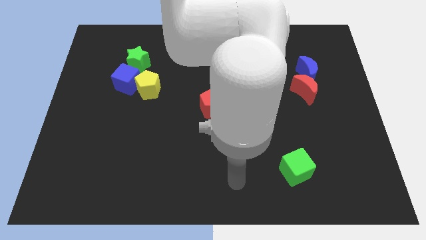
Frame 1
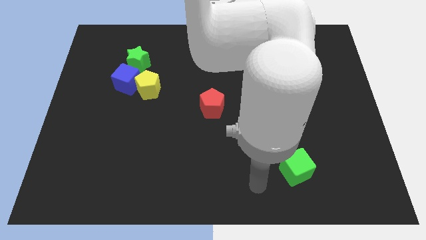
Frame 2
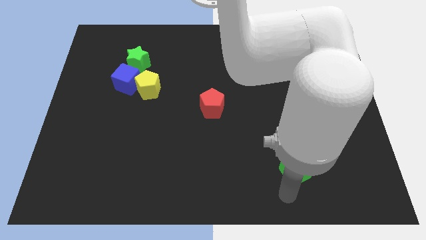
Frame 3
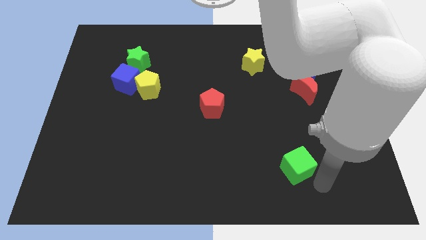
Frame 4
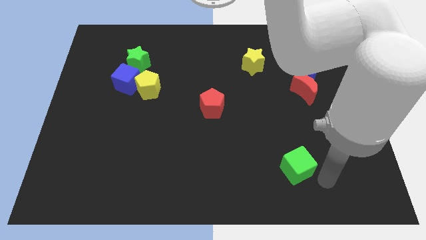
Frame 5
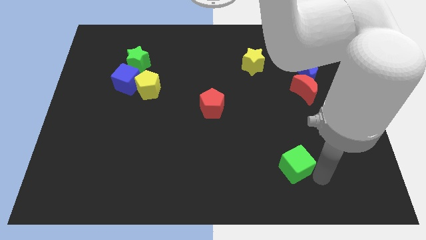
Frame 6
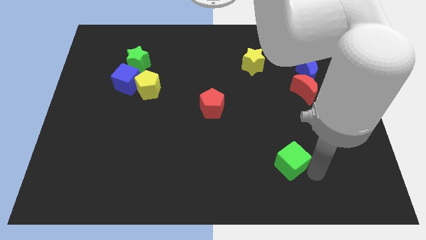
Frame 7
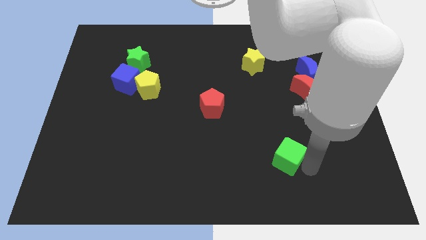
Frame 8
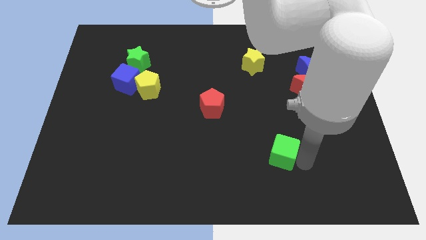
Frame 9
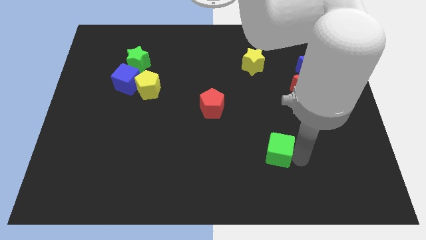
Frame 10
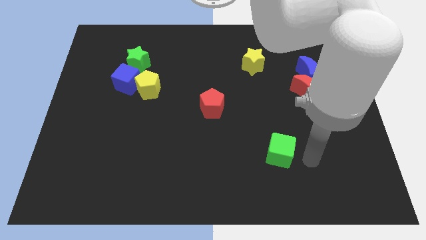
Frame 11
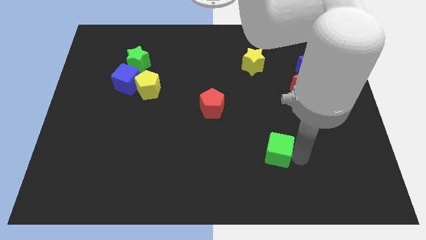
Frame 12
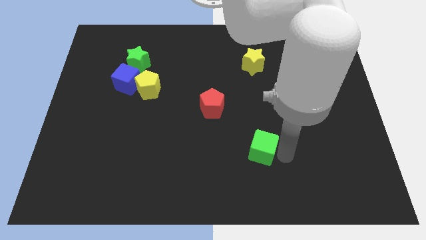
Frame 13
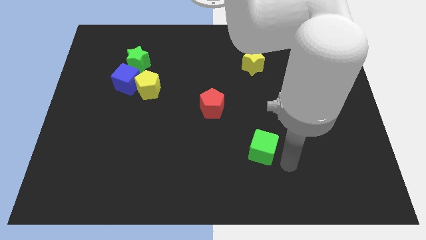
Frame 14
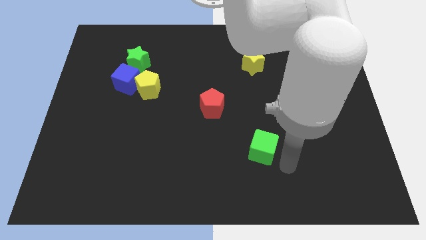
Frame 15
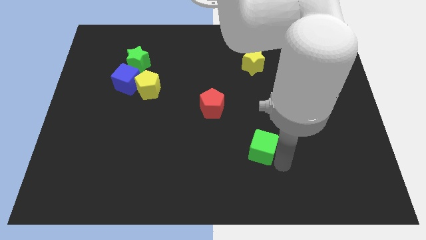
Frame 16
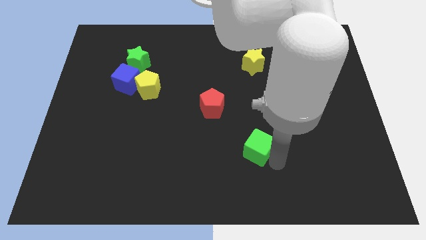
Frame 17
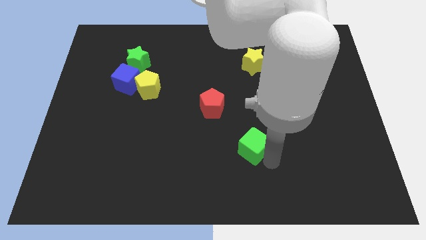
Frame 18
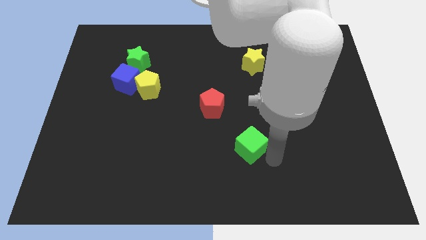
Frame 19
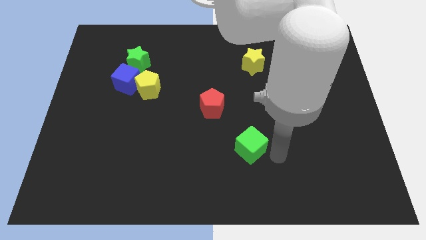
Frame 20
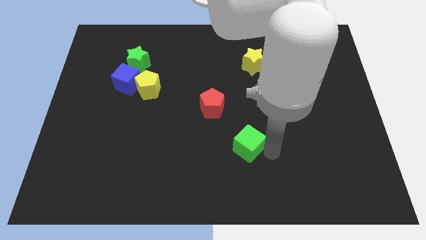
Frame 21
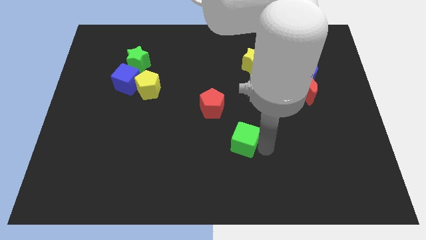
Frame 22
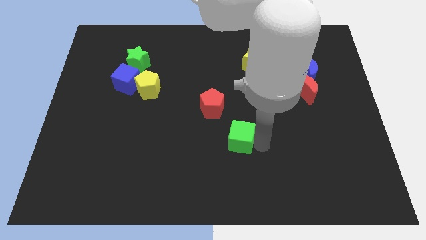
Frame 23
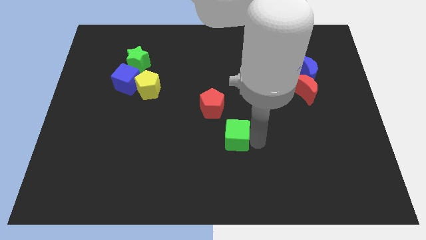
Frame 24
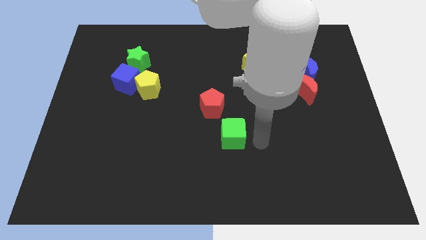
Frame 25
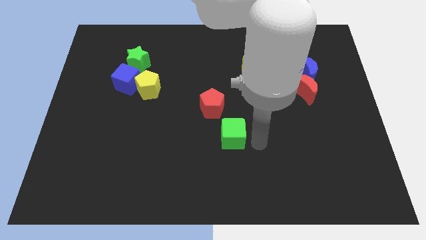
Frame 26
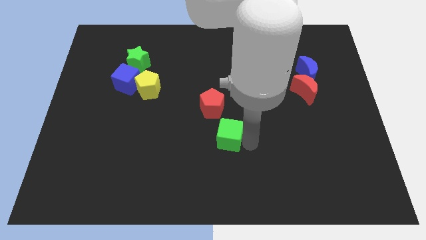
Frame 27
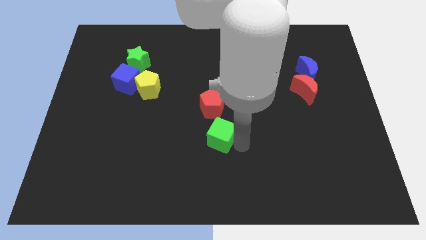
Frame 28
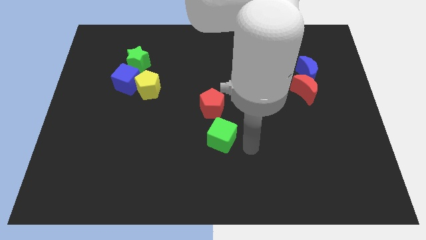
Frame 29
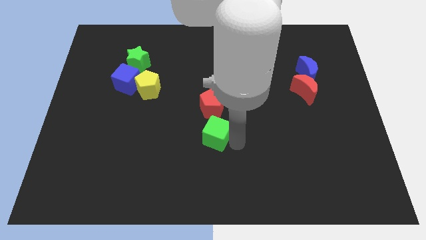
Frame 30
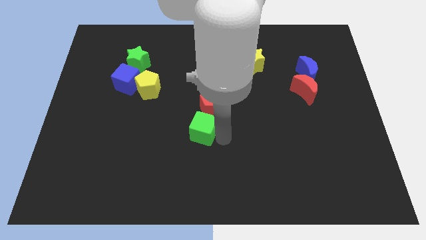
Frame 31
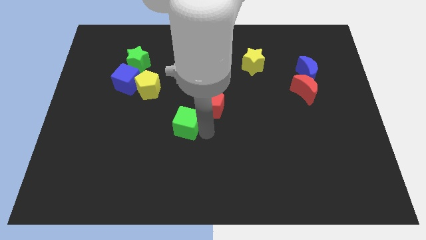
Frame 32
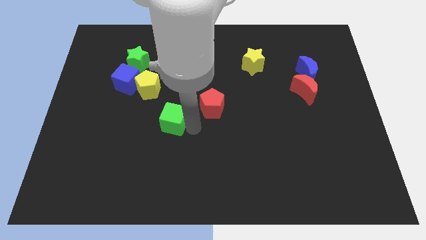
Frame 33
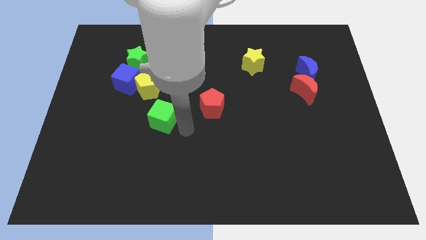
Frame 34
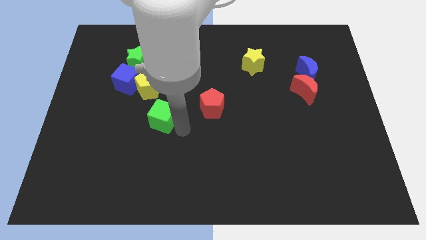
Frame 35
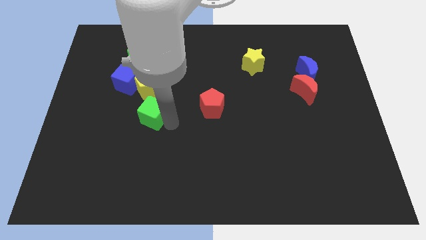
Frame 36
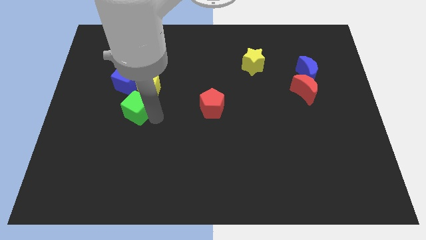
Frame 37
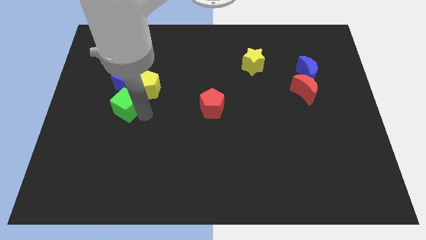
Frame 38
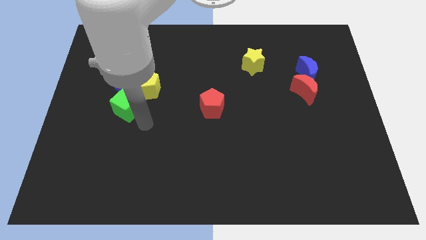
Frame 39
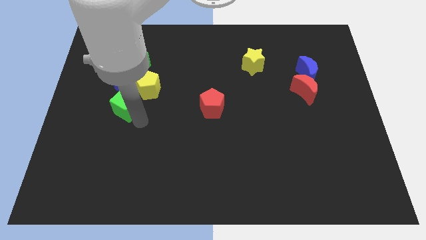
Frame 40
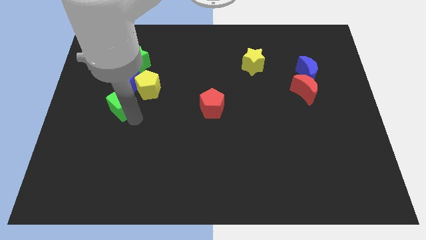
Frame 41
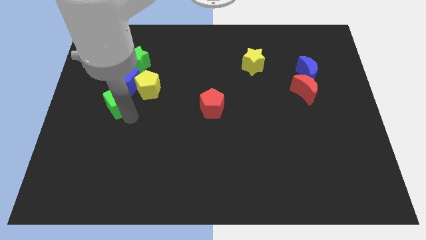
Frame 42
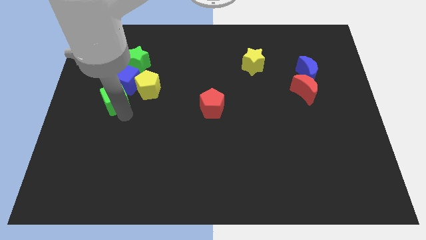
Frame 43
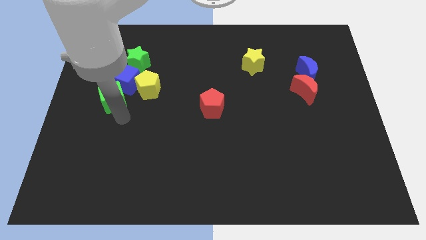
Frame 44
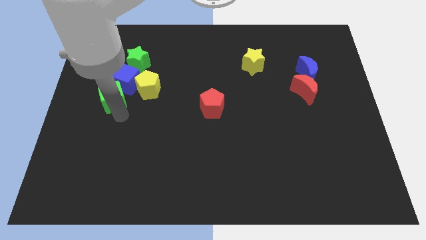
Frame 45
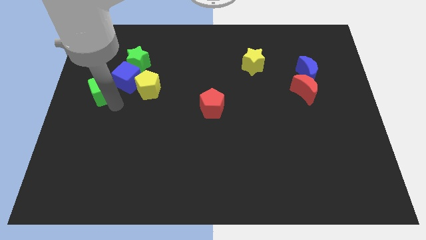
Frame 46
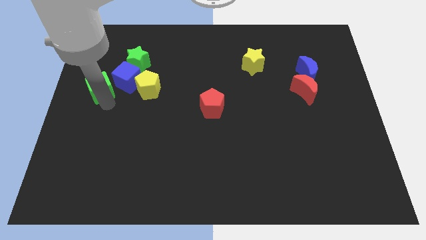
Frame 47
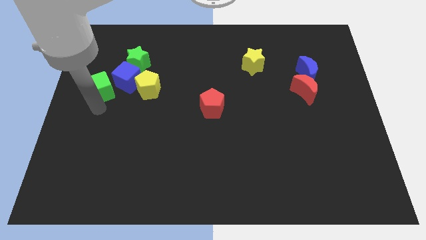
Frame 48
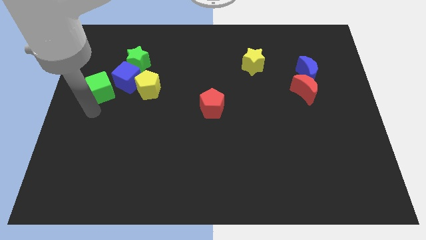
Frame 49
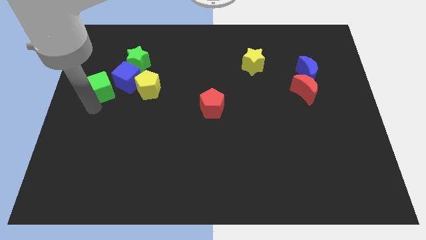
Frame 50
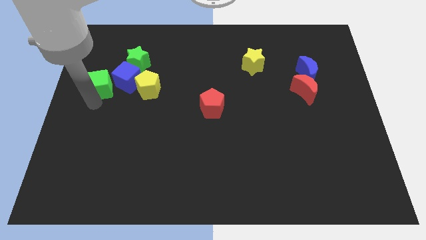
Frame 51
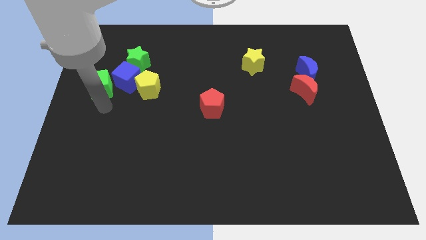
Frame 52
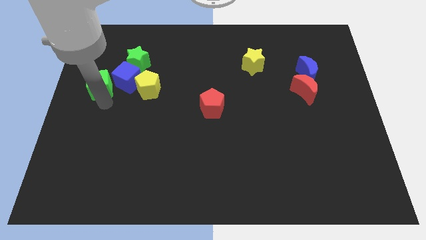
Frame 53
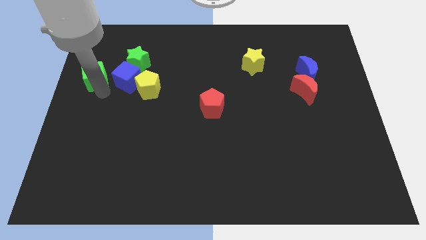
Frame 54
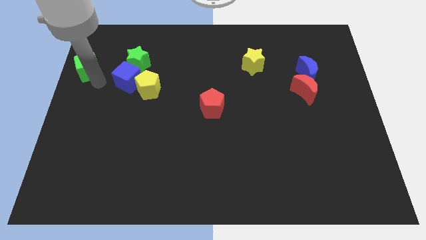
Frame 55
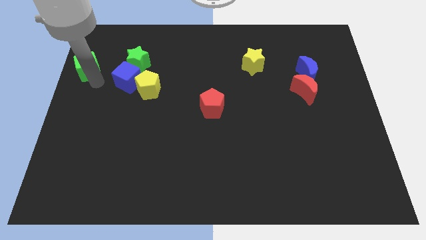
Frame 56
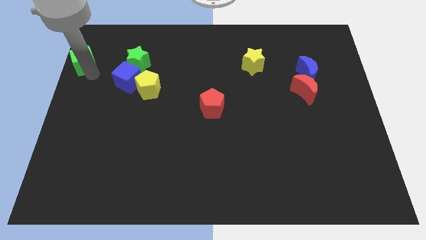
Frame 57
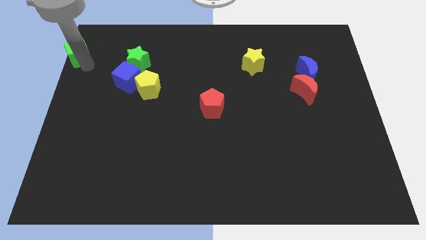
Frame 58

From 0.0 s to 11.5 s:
slide the green cube to the upper left corner

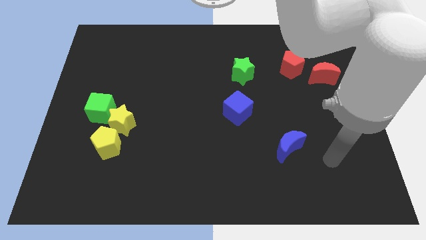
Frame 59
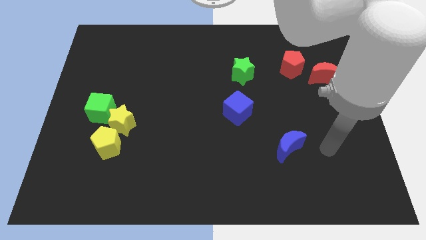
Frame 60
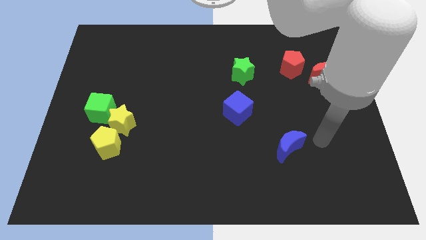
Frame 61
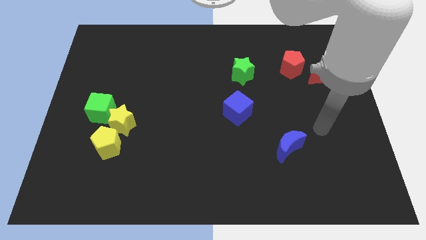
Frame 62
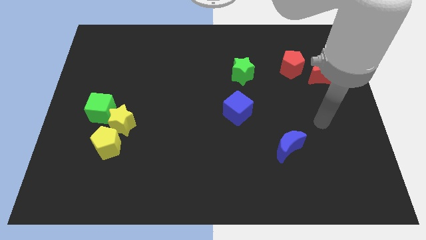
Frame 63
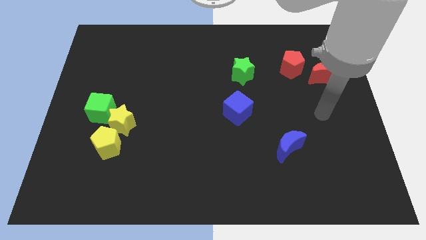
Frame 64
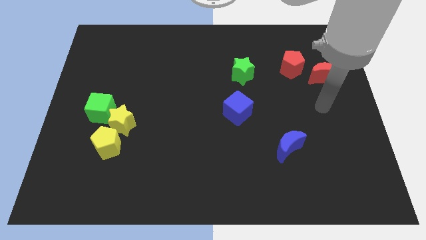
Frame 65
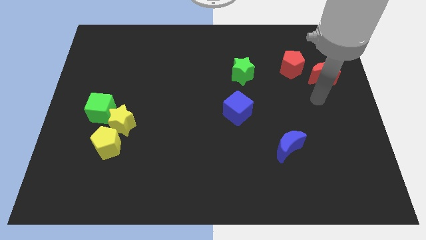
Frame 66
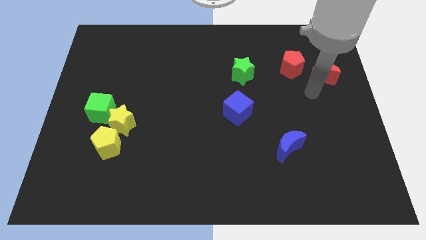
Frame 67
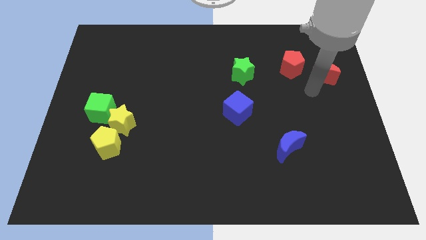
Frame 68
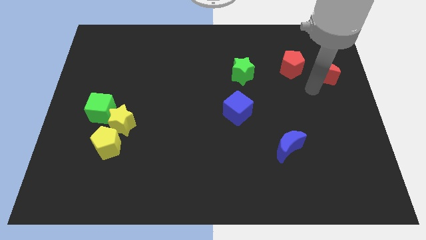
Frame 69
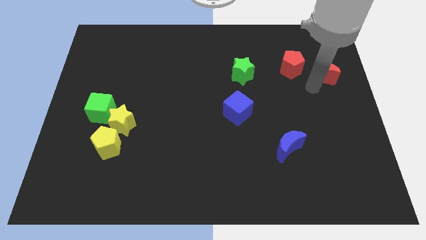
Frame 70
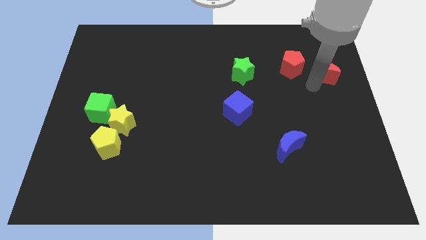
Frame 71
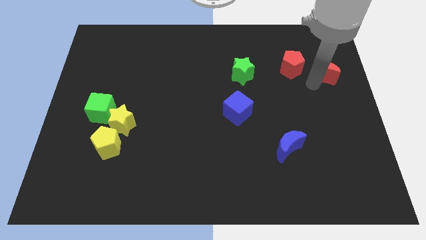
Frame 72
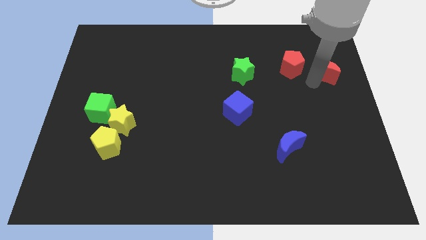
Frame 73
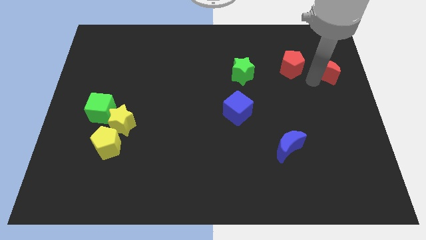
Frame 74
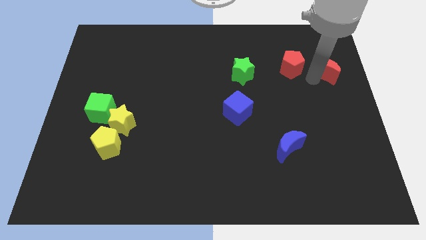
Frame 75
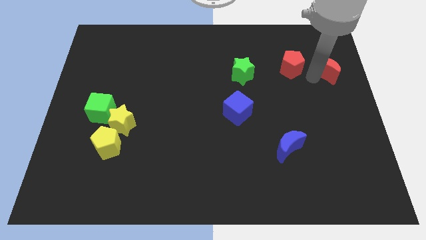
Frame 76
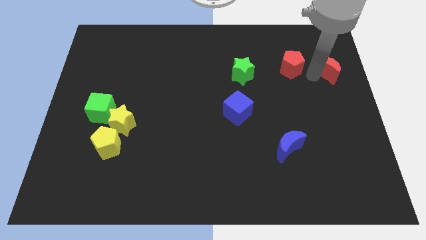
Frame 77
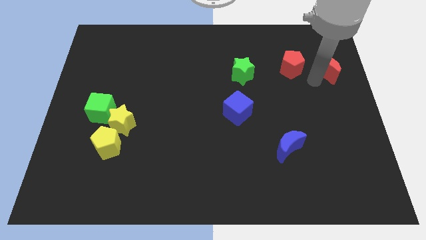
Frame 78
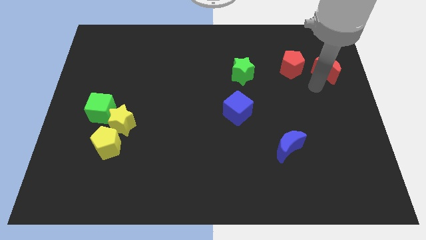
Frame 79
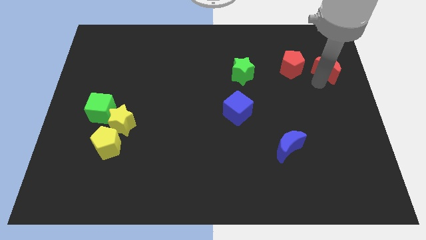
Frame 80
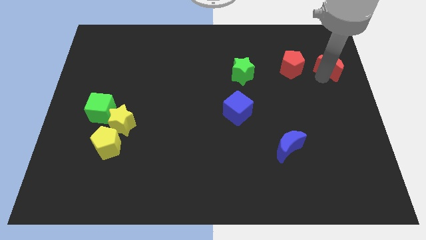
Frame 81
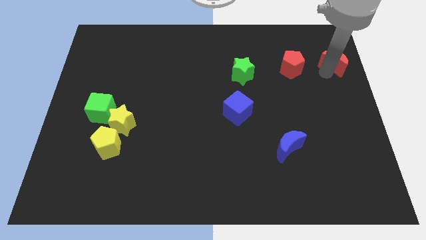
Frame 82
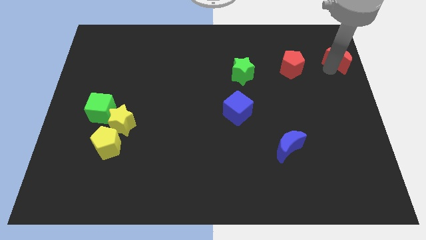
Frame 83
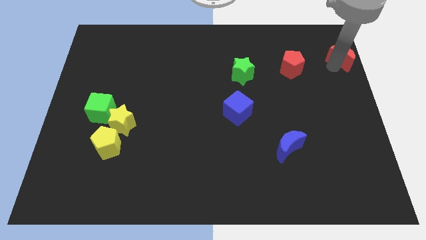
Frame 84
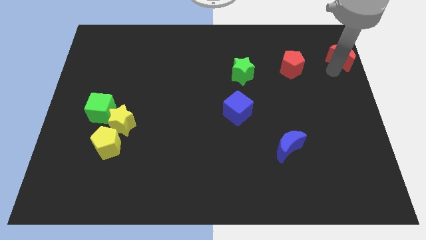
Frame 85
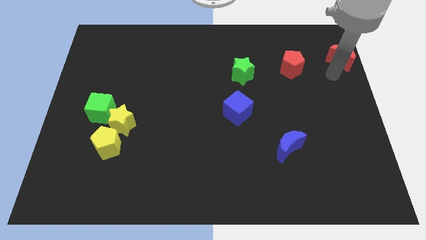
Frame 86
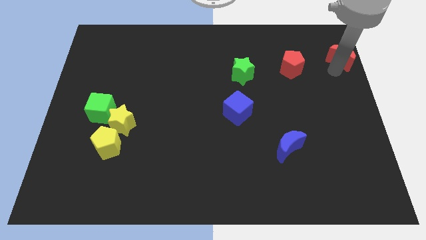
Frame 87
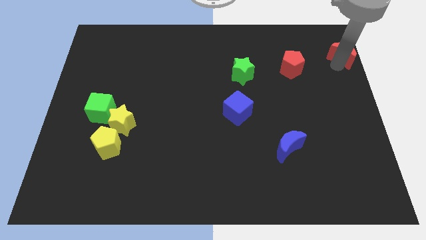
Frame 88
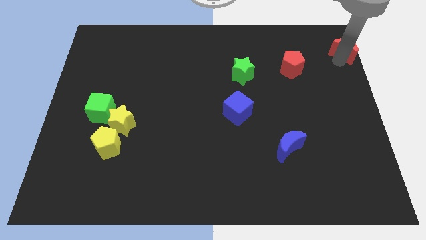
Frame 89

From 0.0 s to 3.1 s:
push the red moon to the top right
